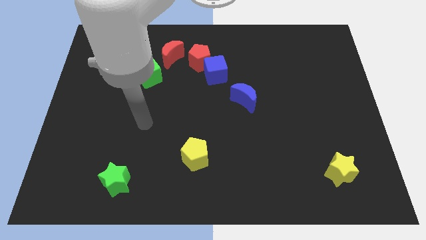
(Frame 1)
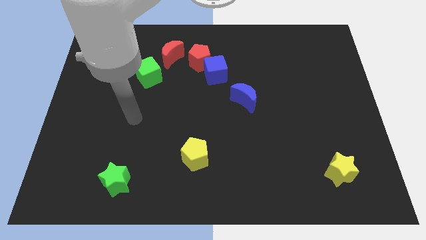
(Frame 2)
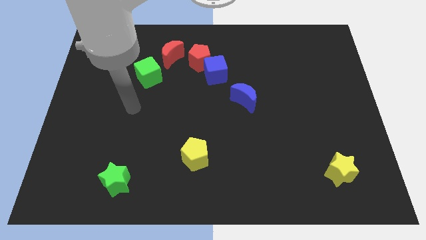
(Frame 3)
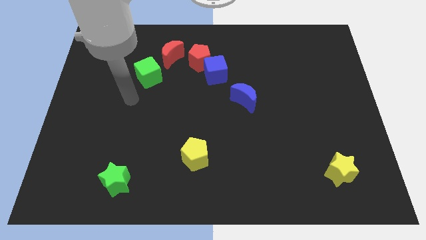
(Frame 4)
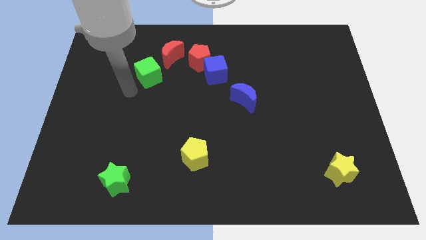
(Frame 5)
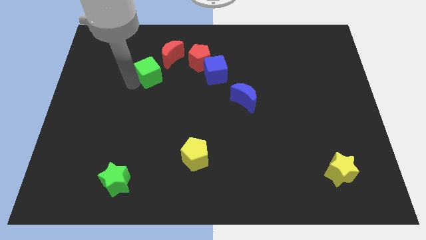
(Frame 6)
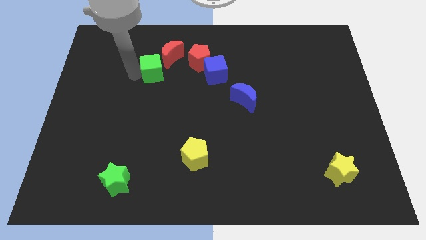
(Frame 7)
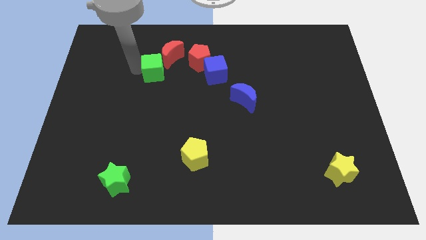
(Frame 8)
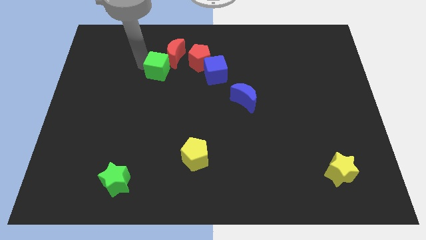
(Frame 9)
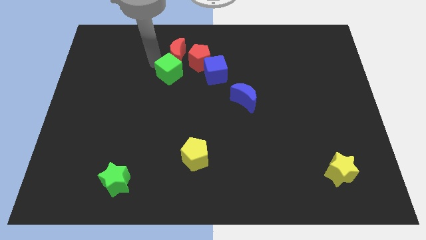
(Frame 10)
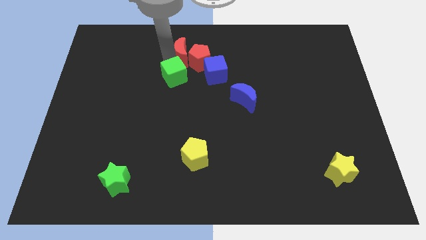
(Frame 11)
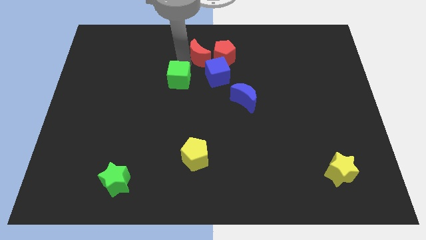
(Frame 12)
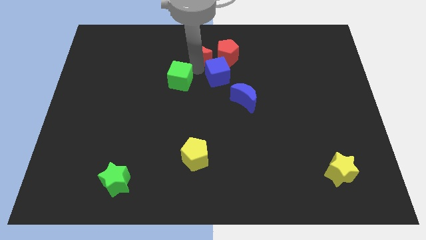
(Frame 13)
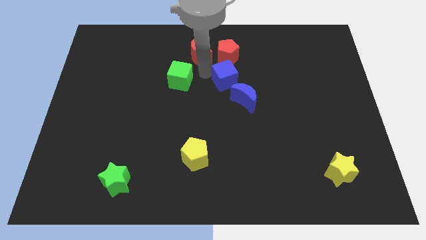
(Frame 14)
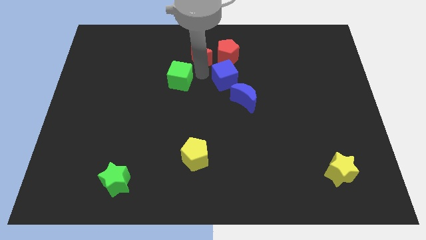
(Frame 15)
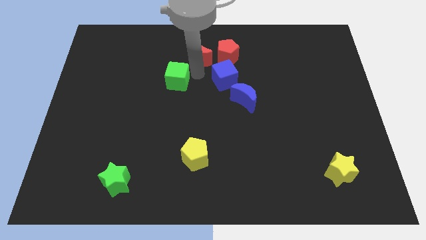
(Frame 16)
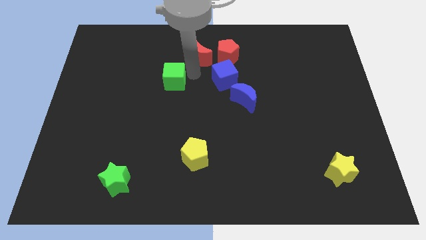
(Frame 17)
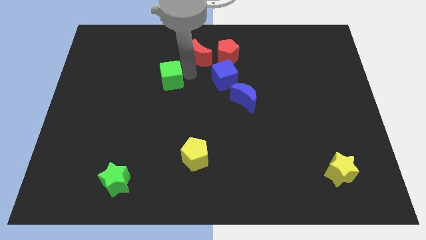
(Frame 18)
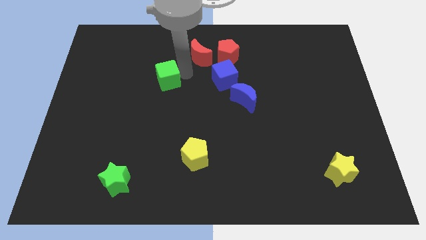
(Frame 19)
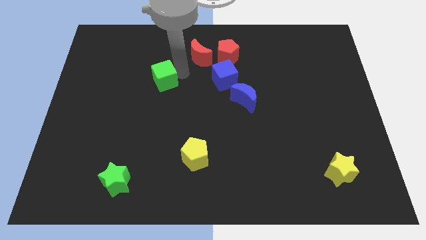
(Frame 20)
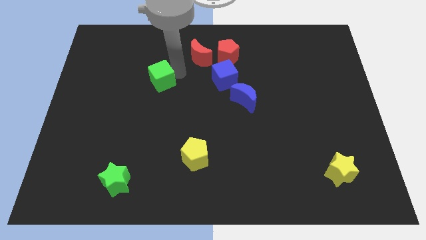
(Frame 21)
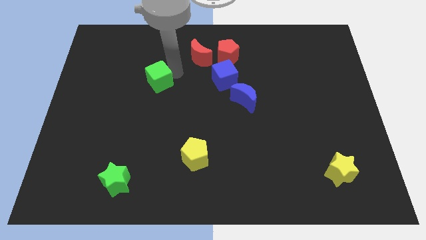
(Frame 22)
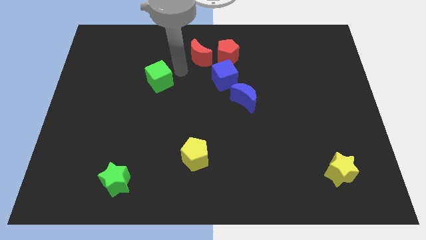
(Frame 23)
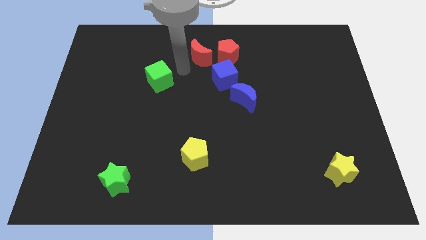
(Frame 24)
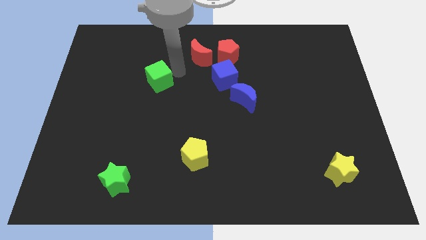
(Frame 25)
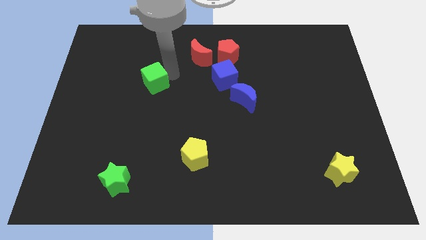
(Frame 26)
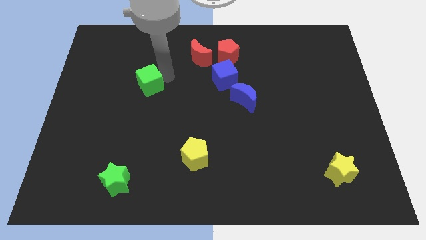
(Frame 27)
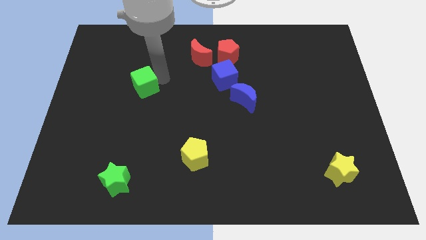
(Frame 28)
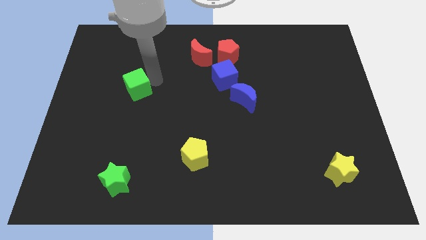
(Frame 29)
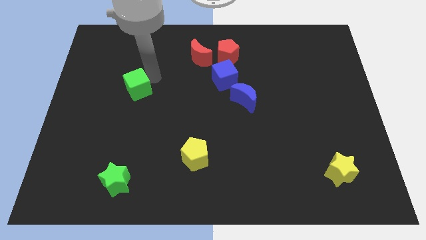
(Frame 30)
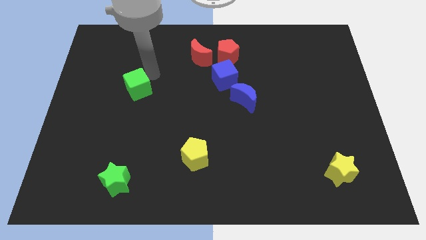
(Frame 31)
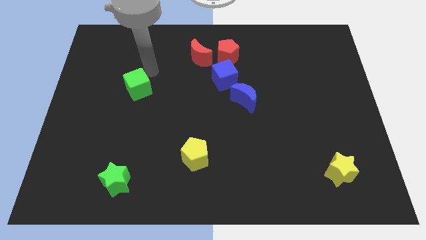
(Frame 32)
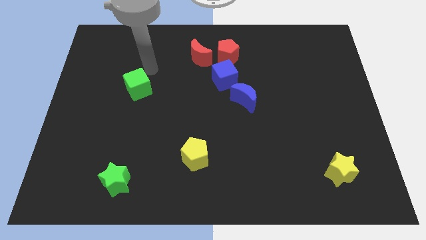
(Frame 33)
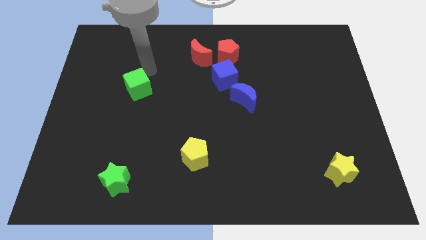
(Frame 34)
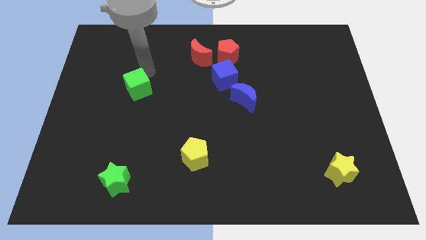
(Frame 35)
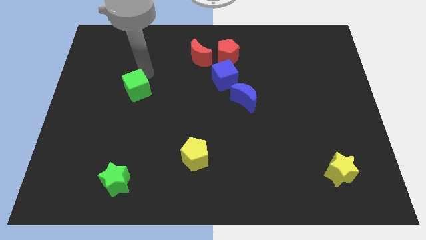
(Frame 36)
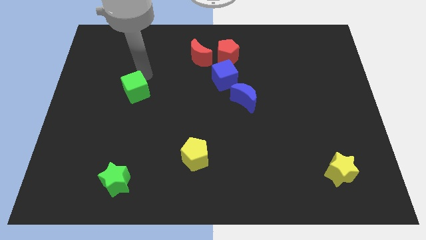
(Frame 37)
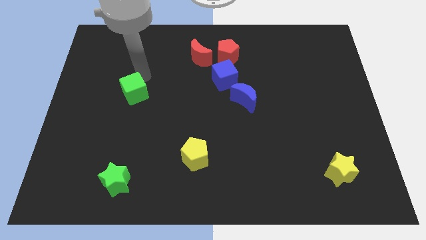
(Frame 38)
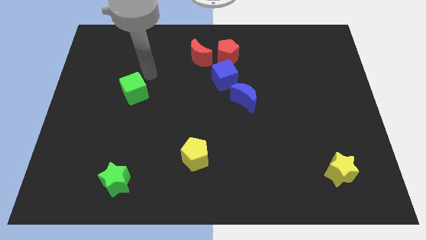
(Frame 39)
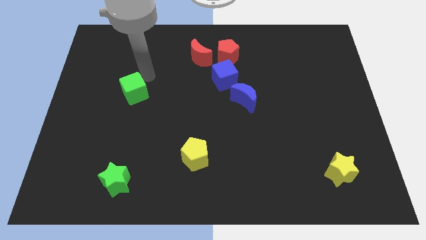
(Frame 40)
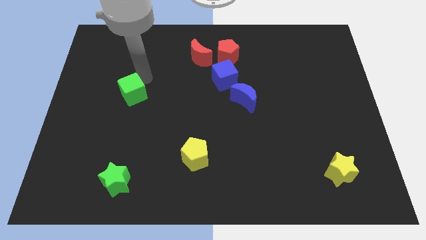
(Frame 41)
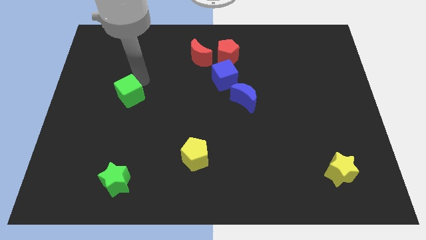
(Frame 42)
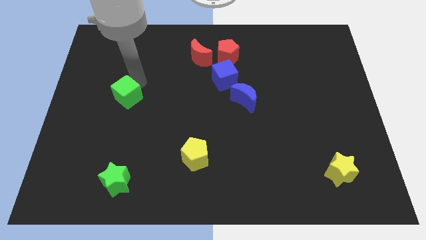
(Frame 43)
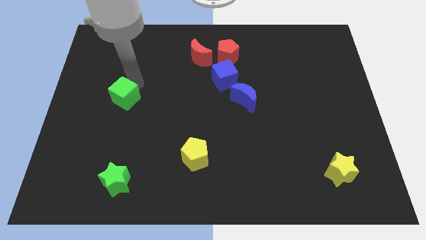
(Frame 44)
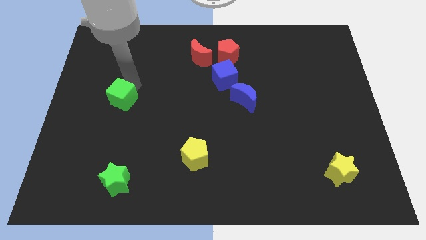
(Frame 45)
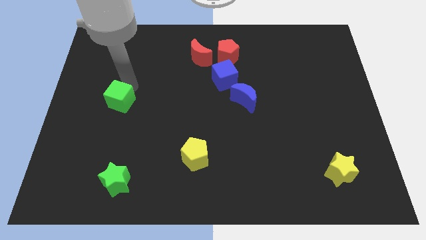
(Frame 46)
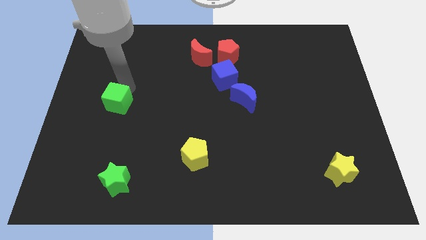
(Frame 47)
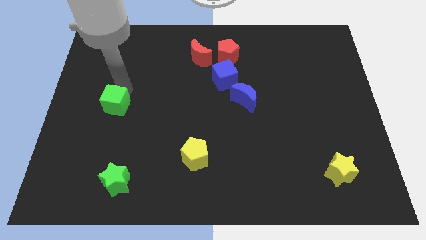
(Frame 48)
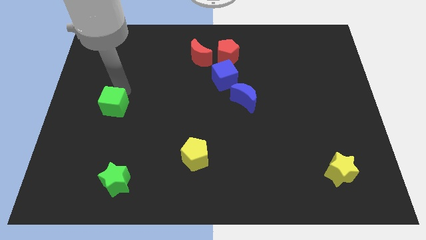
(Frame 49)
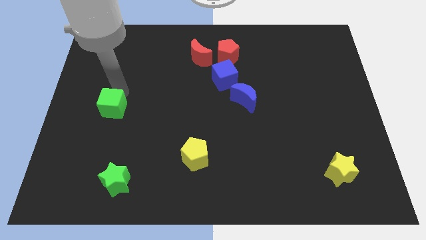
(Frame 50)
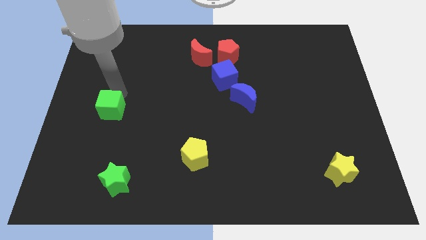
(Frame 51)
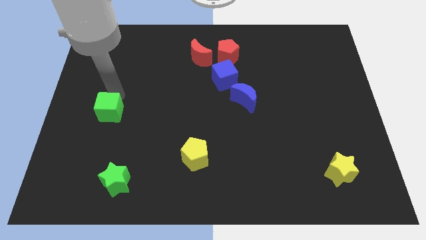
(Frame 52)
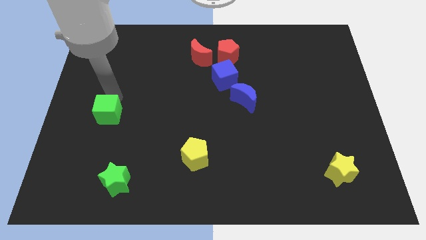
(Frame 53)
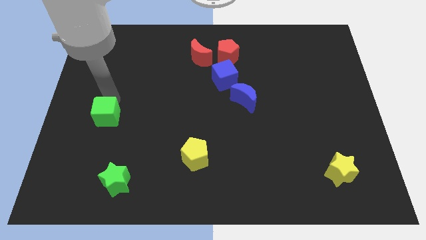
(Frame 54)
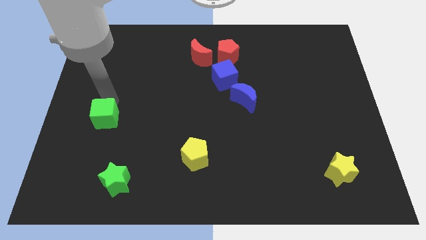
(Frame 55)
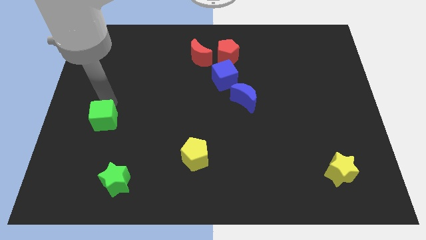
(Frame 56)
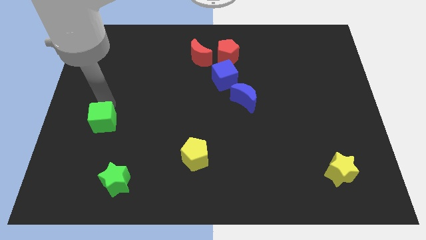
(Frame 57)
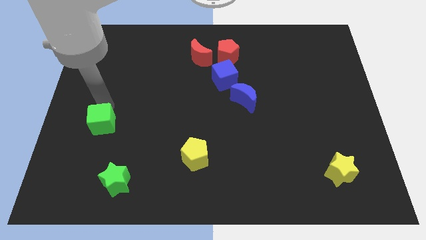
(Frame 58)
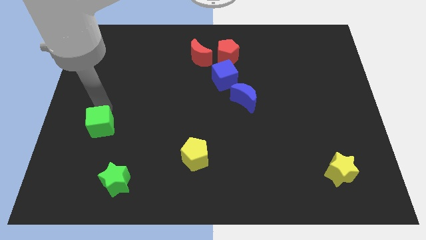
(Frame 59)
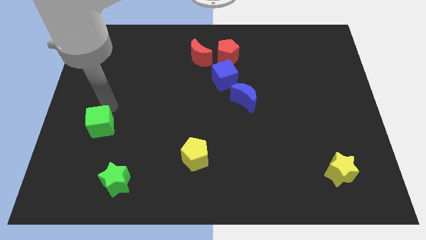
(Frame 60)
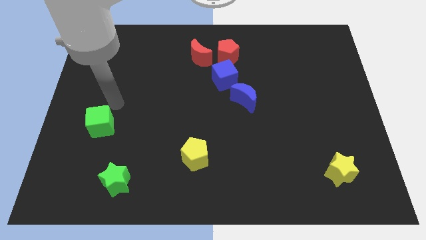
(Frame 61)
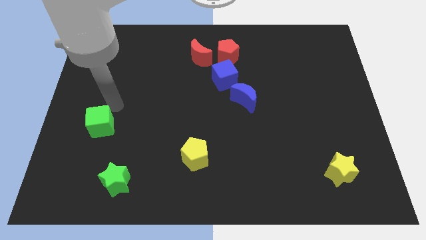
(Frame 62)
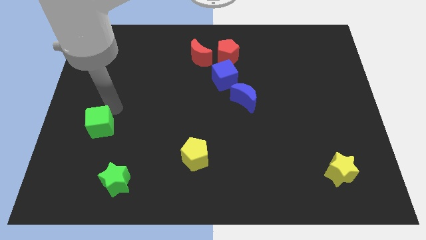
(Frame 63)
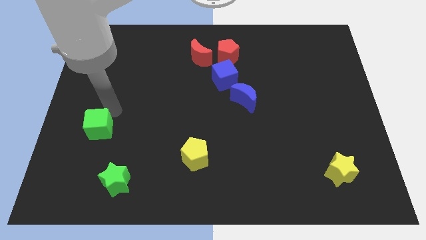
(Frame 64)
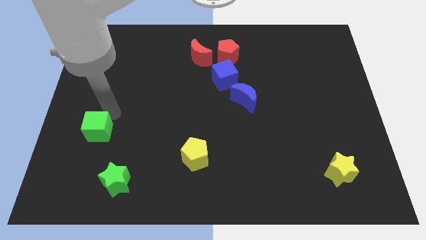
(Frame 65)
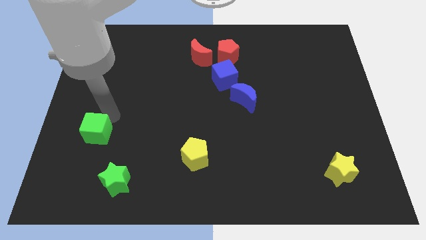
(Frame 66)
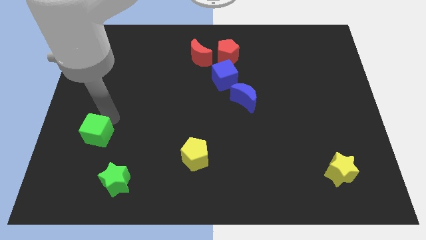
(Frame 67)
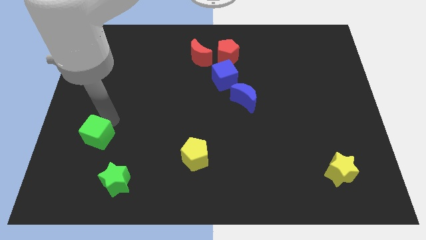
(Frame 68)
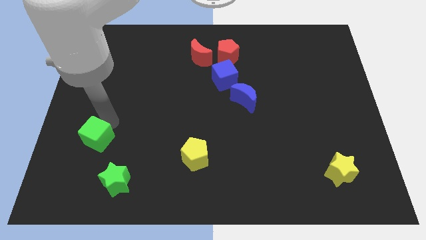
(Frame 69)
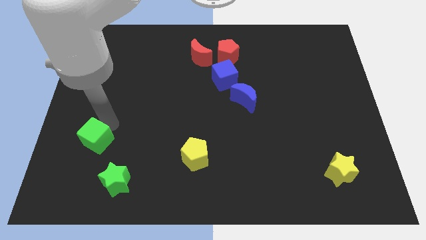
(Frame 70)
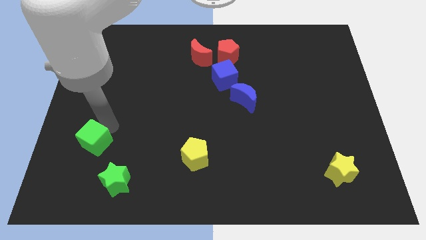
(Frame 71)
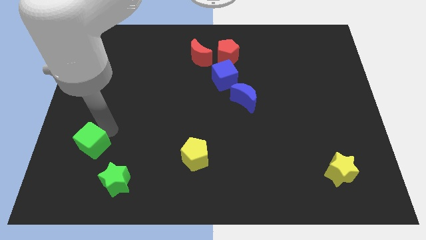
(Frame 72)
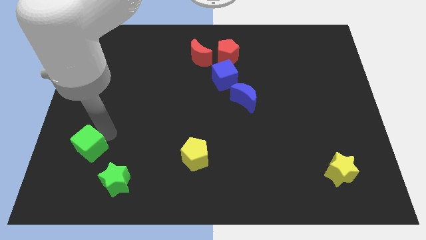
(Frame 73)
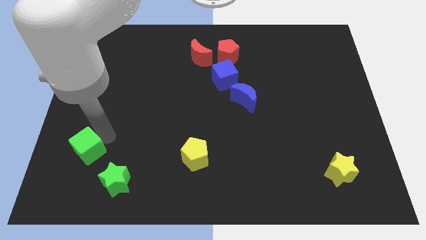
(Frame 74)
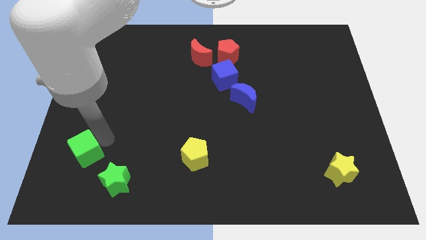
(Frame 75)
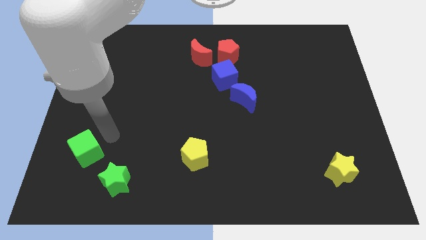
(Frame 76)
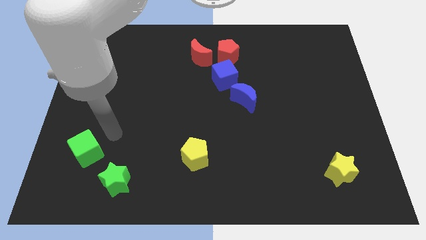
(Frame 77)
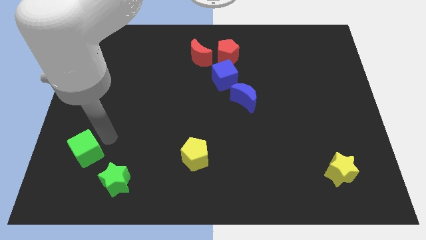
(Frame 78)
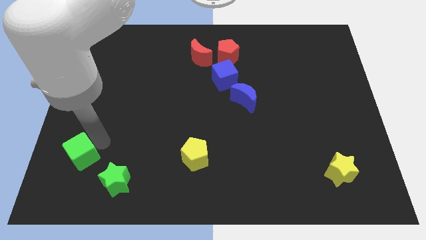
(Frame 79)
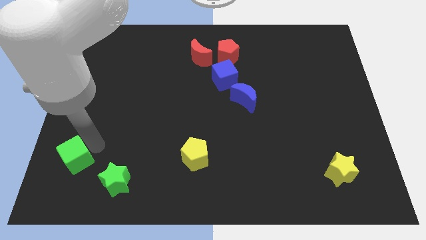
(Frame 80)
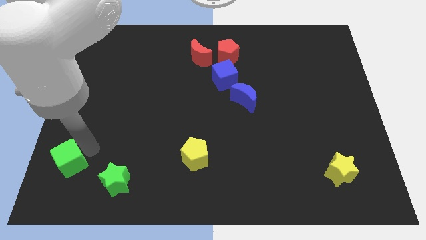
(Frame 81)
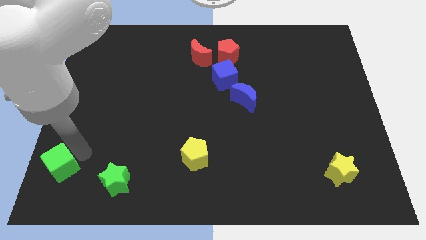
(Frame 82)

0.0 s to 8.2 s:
push the green cube to the bottom left corner
